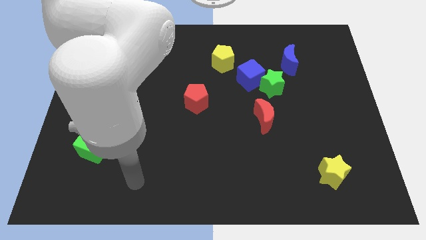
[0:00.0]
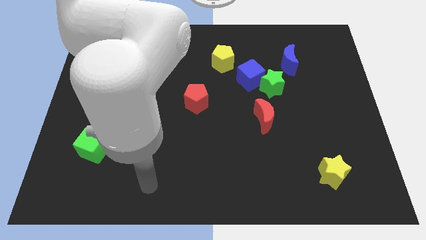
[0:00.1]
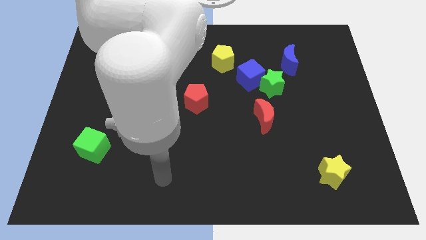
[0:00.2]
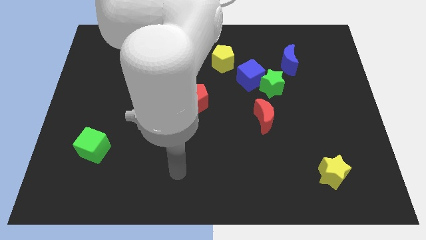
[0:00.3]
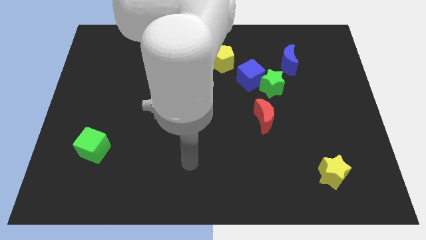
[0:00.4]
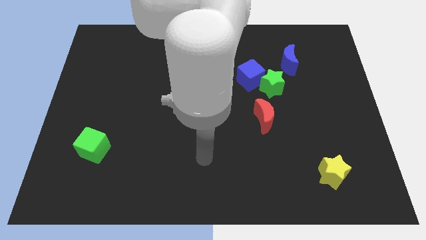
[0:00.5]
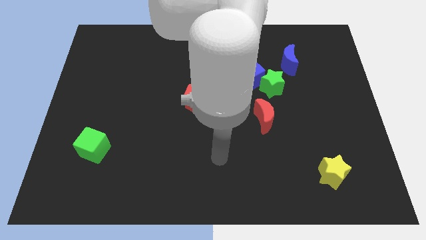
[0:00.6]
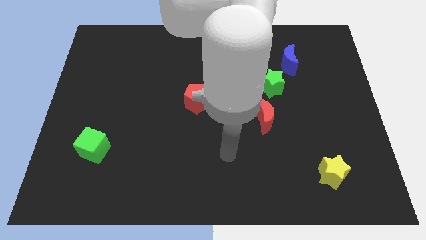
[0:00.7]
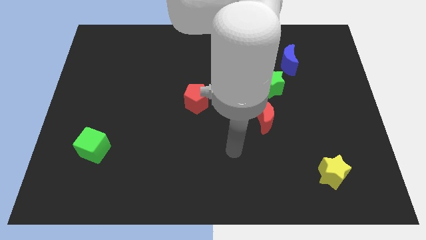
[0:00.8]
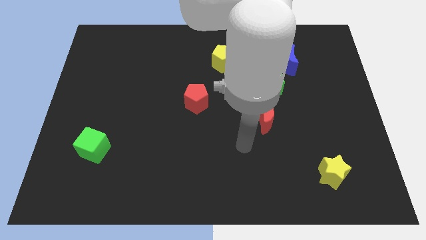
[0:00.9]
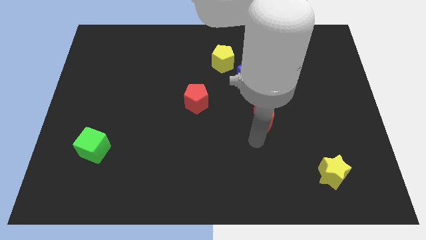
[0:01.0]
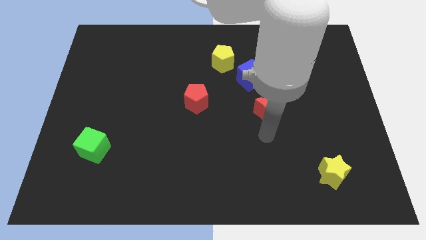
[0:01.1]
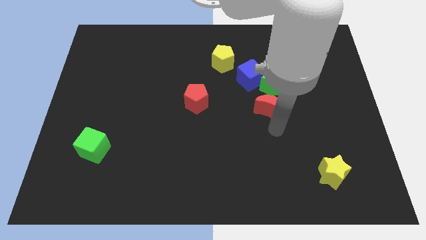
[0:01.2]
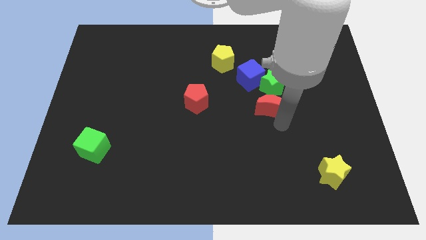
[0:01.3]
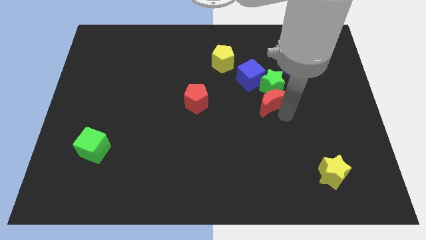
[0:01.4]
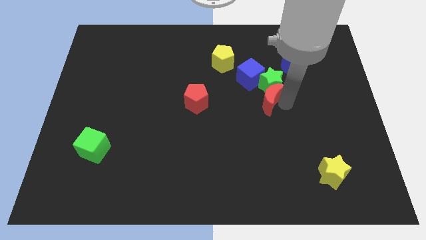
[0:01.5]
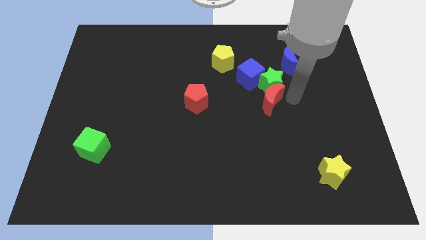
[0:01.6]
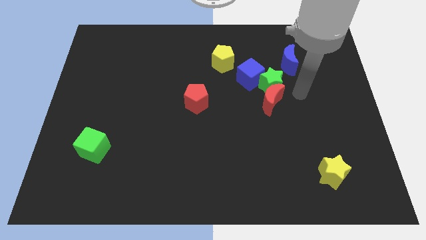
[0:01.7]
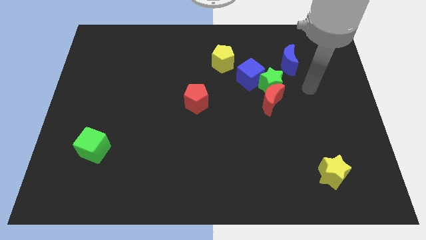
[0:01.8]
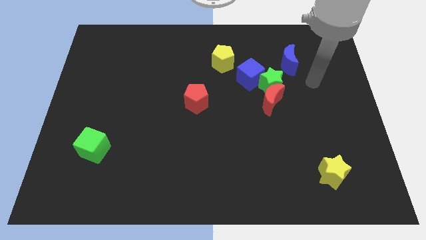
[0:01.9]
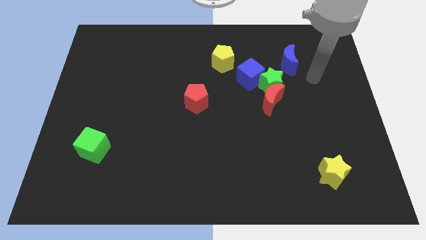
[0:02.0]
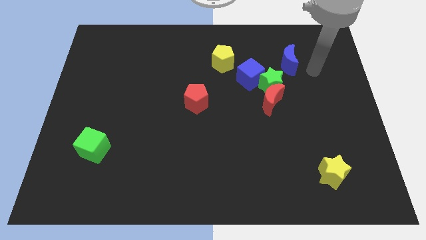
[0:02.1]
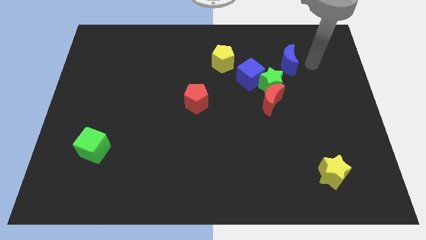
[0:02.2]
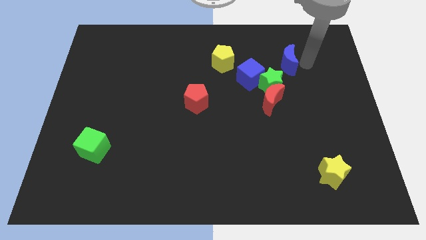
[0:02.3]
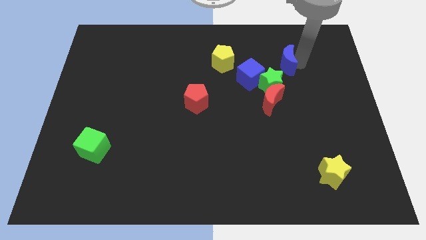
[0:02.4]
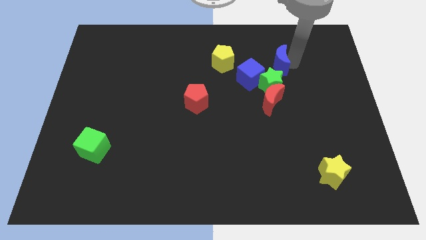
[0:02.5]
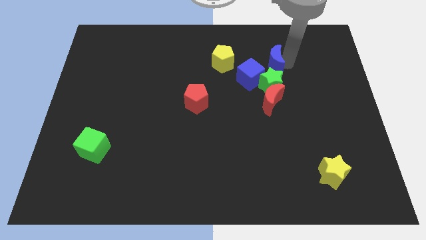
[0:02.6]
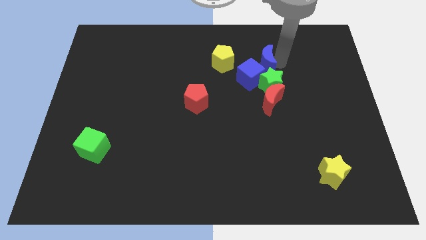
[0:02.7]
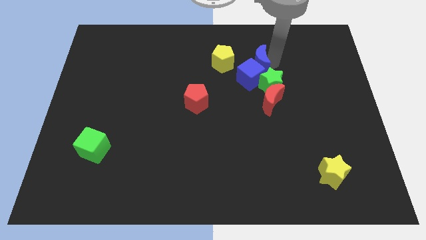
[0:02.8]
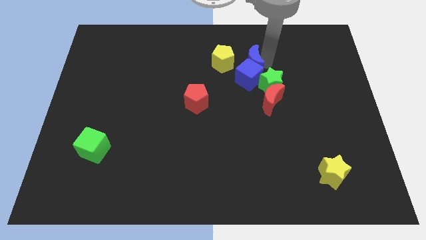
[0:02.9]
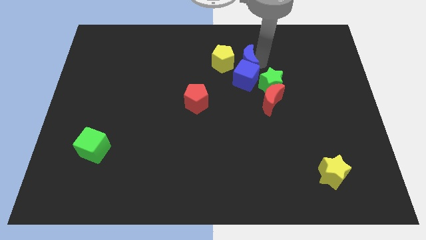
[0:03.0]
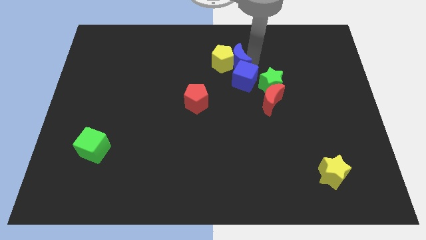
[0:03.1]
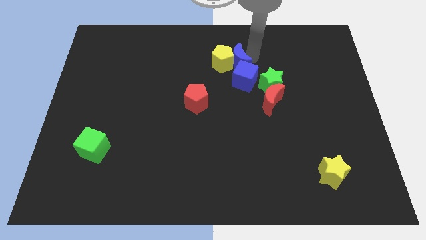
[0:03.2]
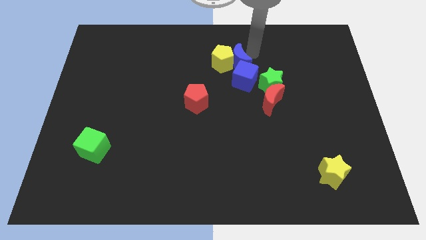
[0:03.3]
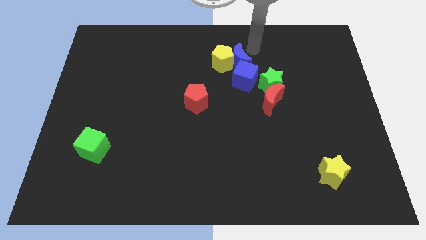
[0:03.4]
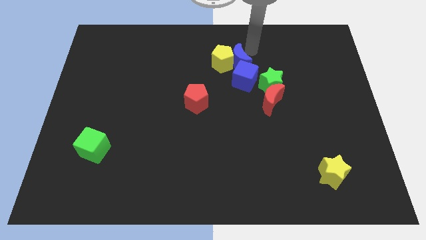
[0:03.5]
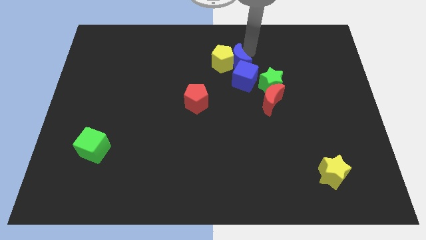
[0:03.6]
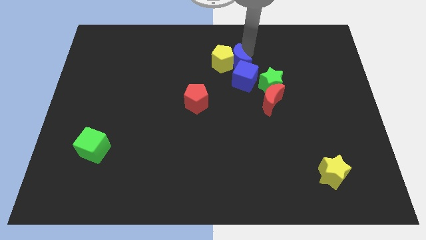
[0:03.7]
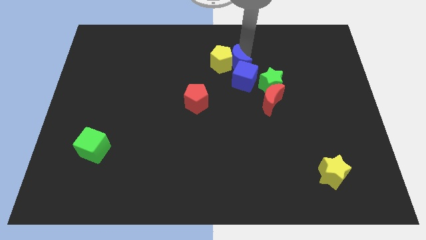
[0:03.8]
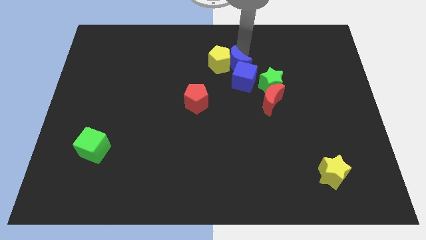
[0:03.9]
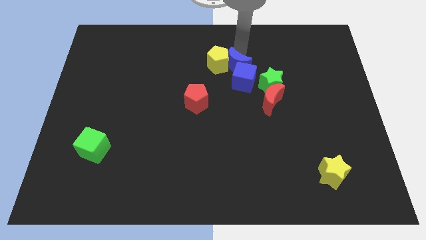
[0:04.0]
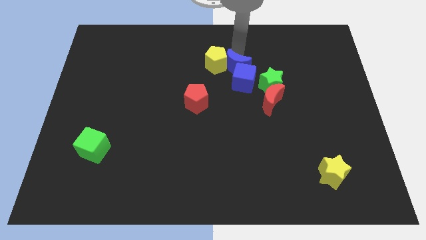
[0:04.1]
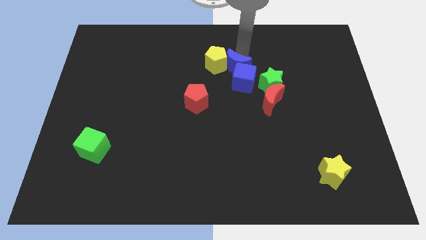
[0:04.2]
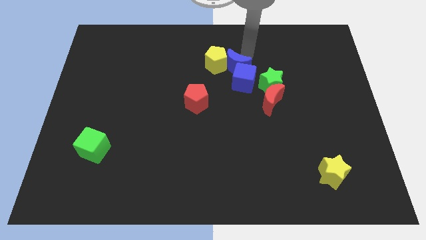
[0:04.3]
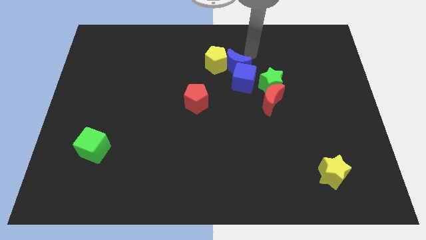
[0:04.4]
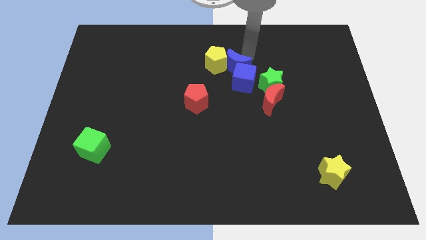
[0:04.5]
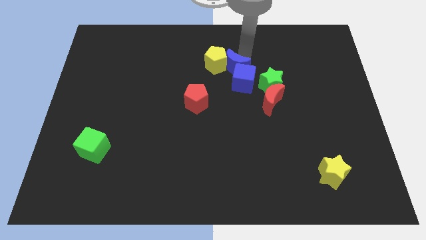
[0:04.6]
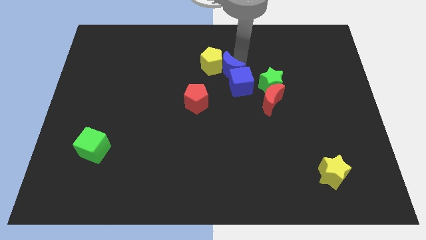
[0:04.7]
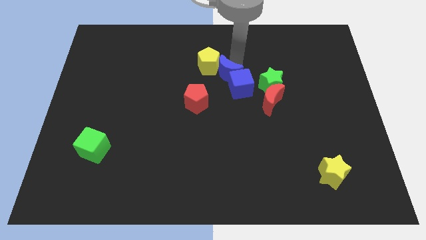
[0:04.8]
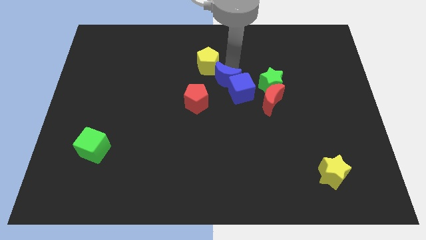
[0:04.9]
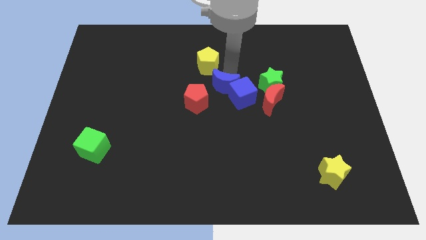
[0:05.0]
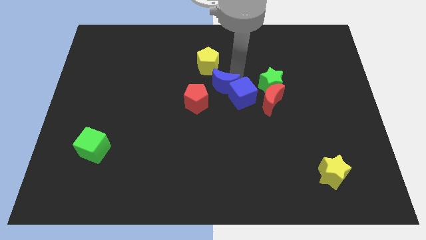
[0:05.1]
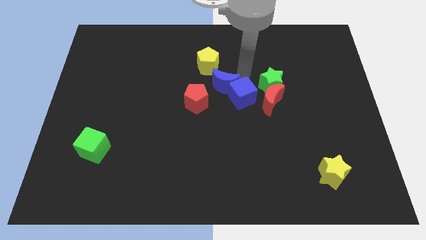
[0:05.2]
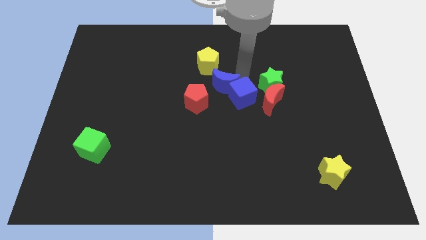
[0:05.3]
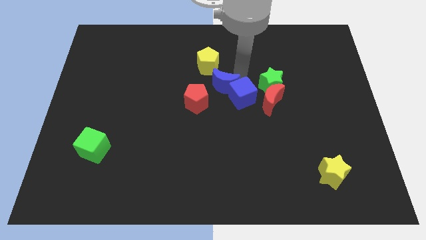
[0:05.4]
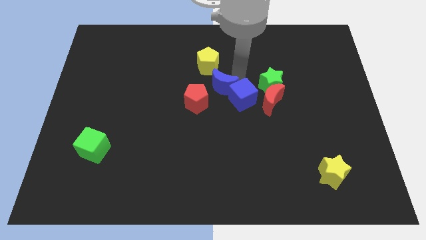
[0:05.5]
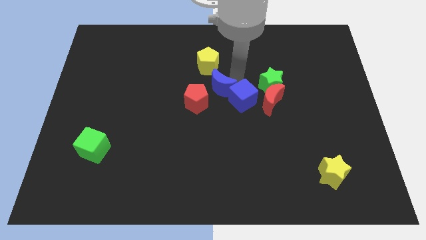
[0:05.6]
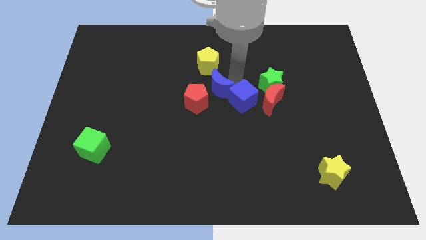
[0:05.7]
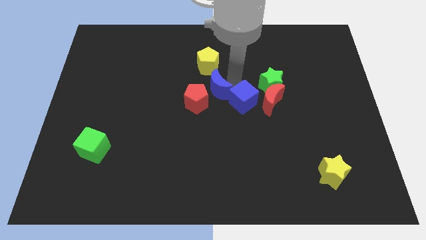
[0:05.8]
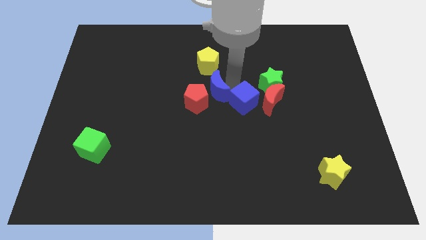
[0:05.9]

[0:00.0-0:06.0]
move the blue moon next to the red pentagon

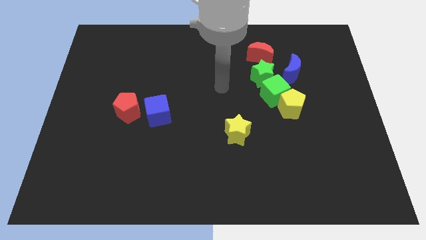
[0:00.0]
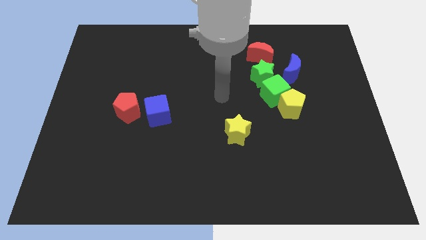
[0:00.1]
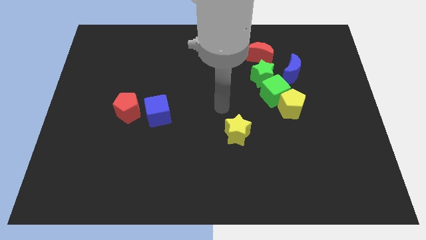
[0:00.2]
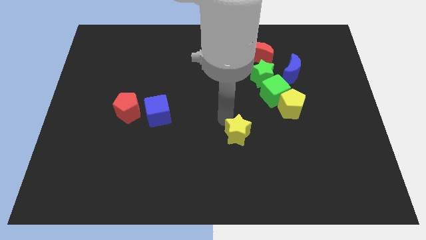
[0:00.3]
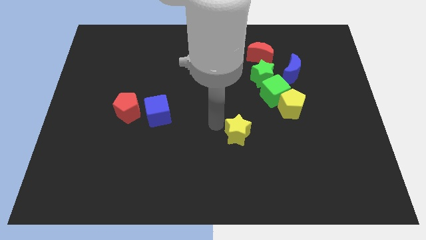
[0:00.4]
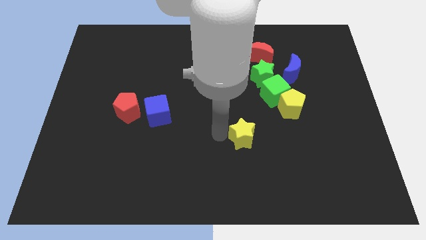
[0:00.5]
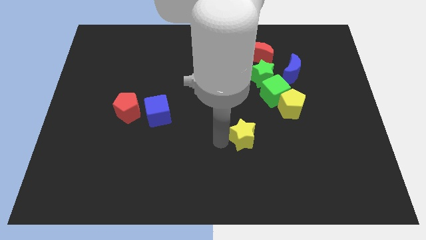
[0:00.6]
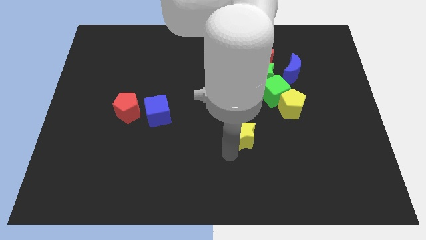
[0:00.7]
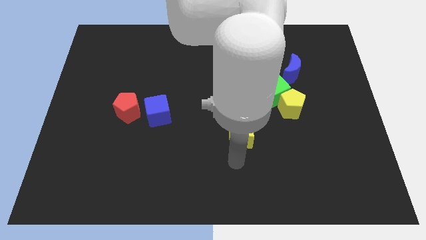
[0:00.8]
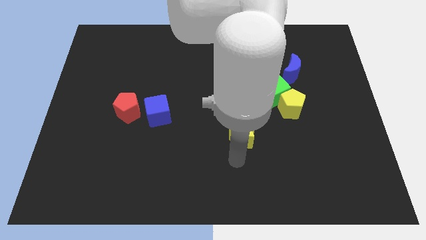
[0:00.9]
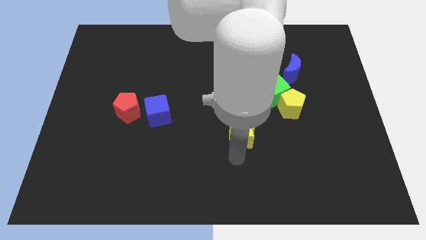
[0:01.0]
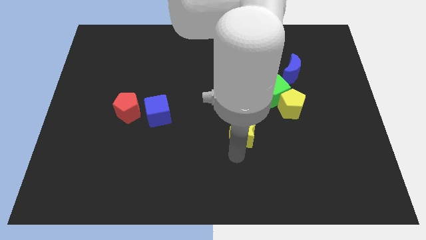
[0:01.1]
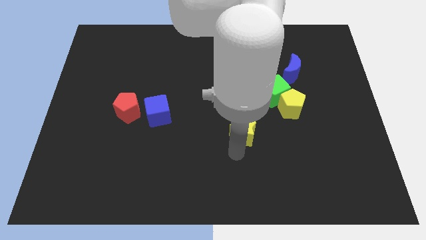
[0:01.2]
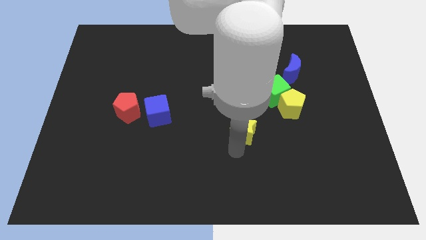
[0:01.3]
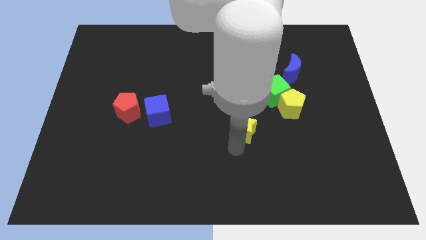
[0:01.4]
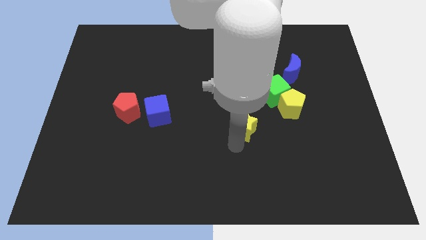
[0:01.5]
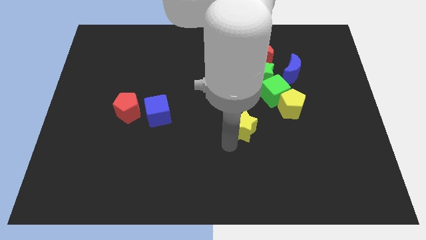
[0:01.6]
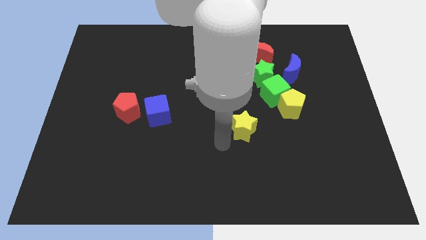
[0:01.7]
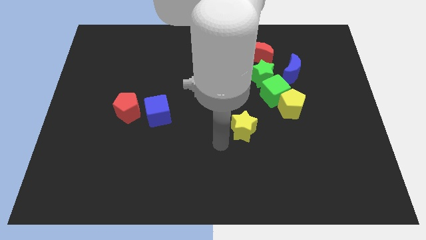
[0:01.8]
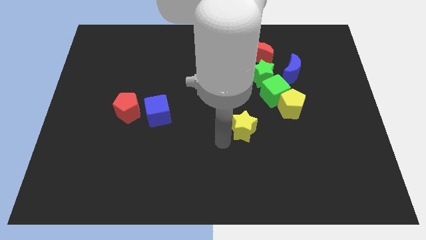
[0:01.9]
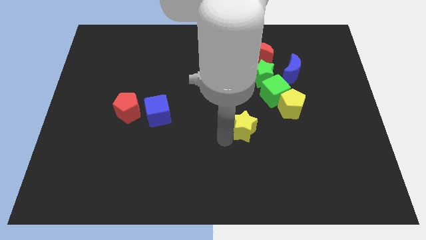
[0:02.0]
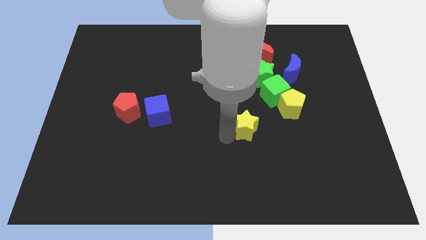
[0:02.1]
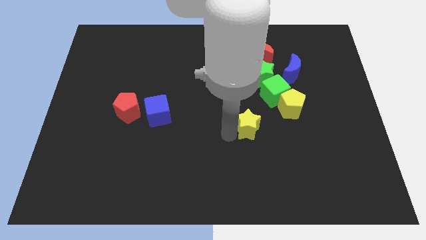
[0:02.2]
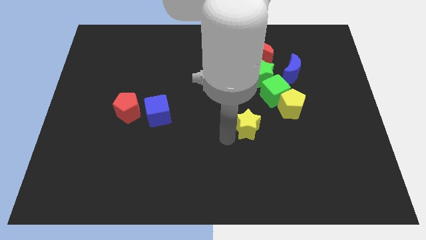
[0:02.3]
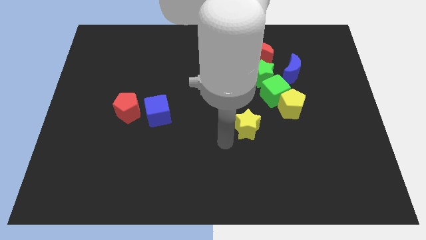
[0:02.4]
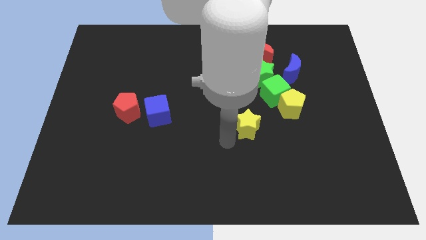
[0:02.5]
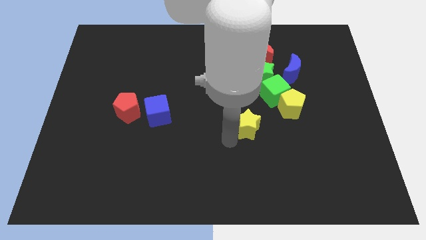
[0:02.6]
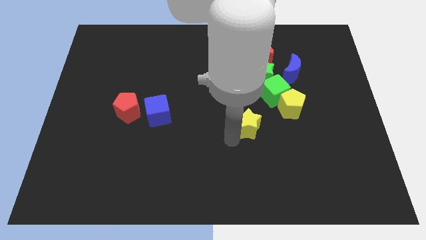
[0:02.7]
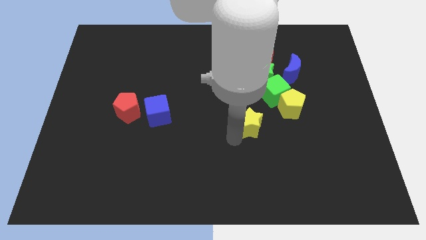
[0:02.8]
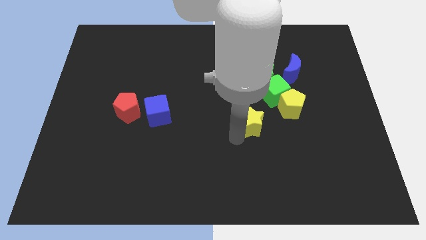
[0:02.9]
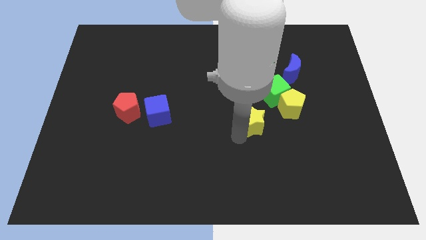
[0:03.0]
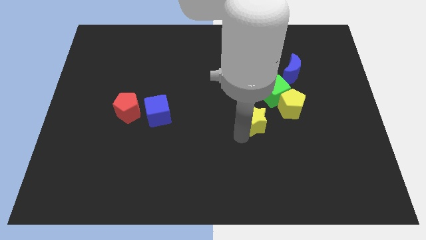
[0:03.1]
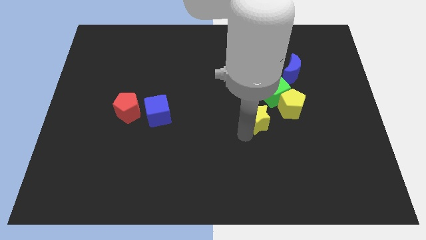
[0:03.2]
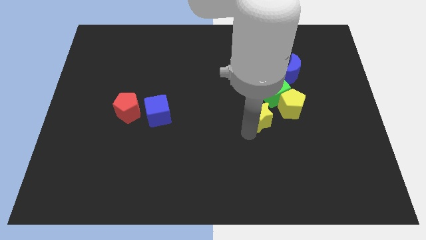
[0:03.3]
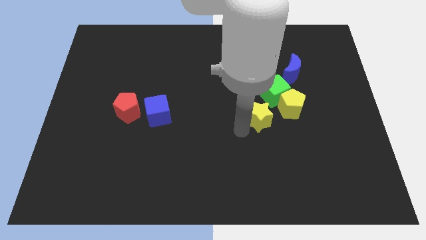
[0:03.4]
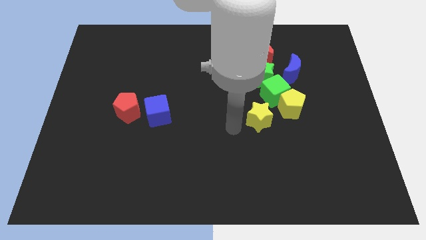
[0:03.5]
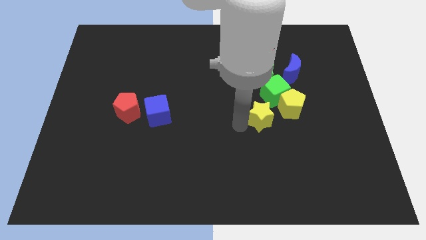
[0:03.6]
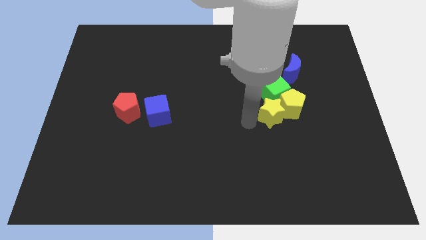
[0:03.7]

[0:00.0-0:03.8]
slide the yellow star towards the yellow pentagon
